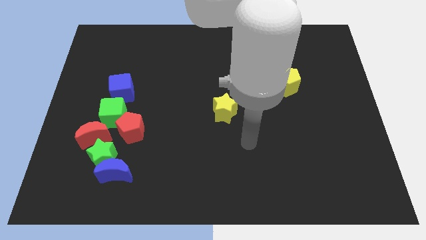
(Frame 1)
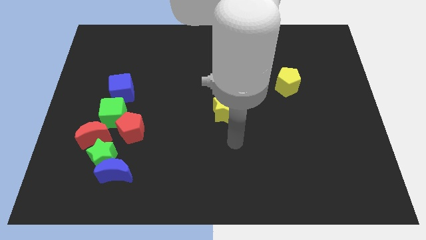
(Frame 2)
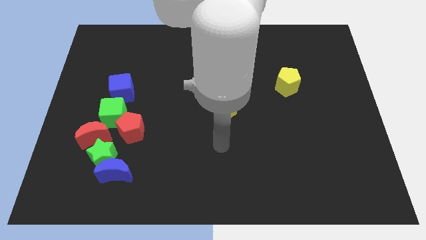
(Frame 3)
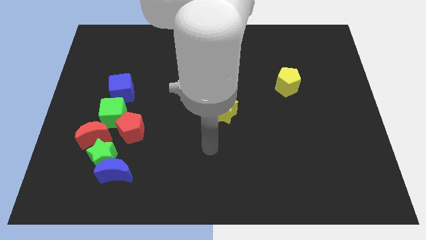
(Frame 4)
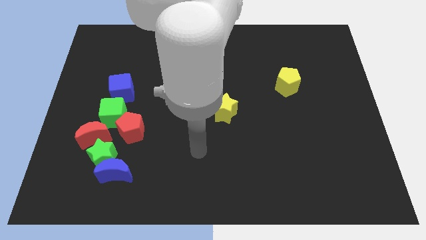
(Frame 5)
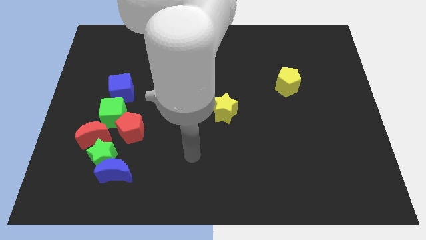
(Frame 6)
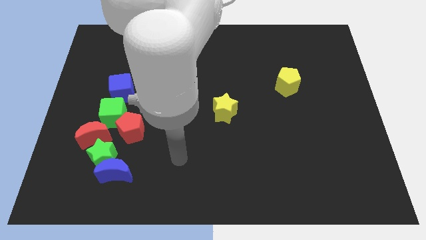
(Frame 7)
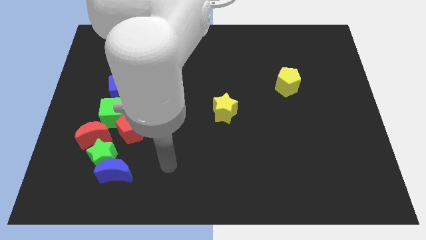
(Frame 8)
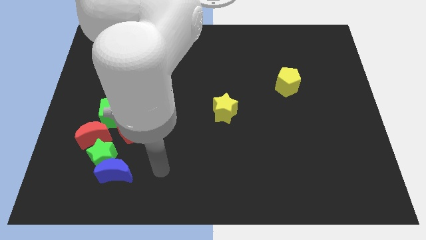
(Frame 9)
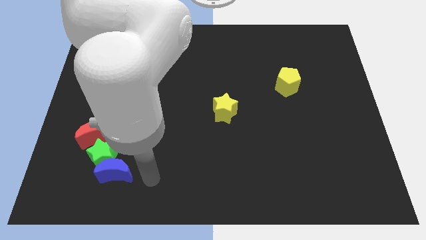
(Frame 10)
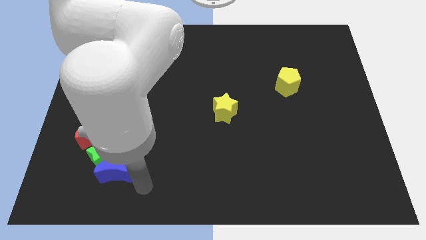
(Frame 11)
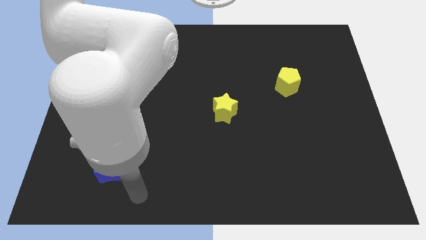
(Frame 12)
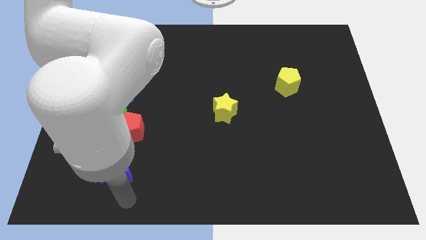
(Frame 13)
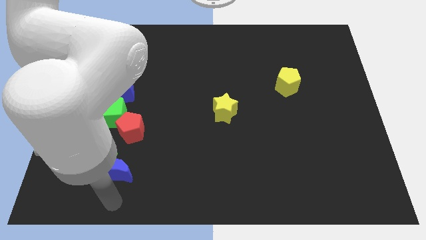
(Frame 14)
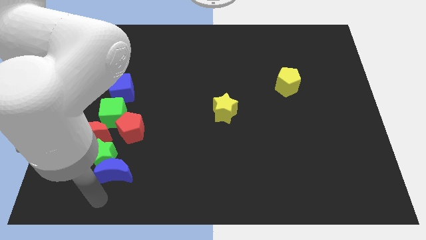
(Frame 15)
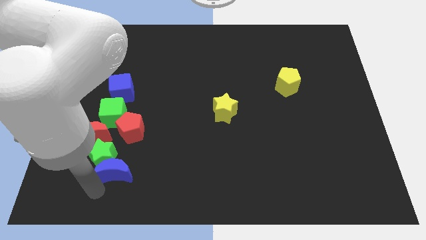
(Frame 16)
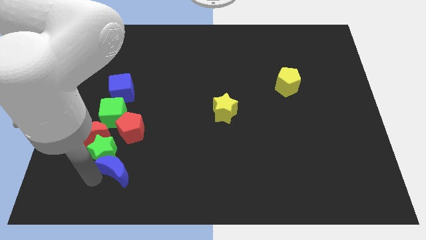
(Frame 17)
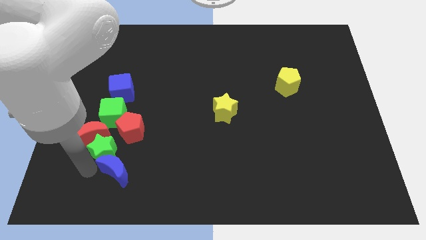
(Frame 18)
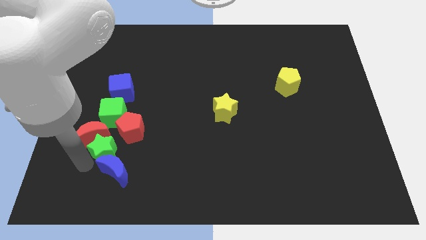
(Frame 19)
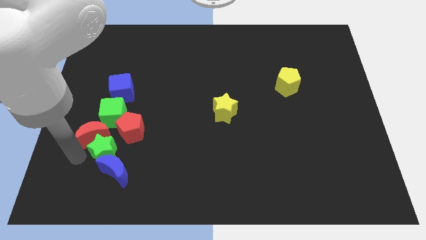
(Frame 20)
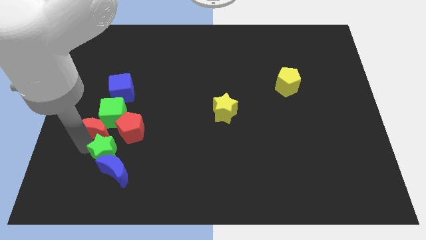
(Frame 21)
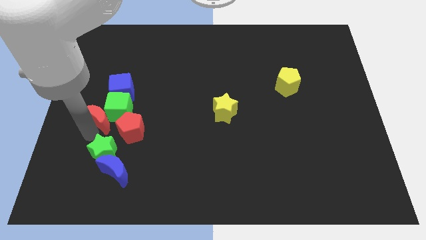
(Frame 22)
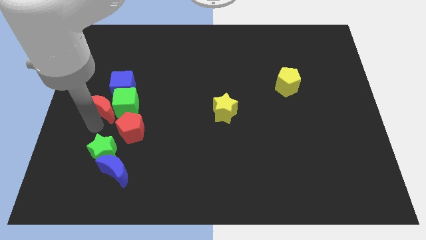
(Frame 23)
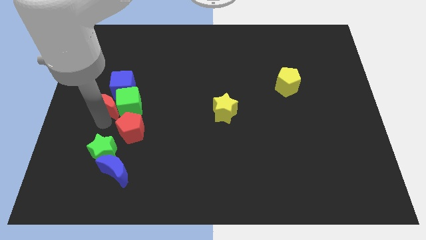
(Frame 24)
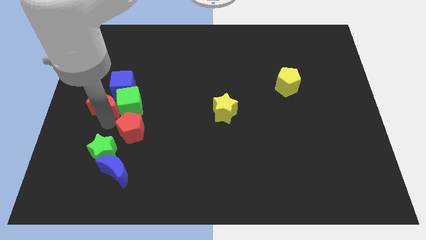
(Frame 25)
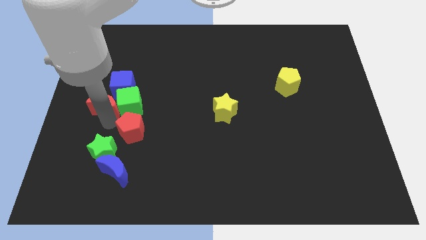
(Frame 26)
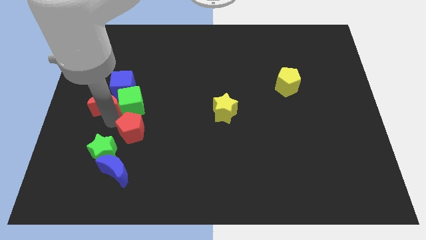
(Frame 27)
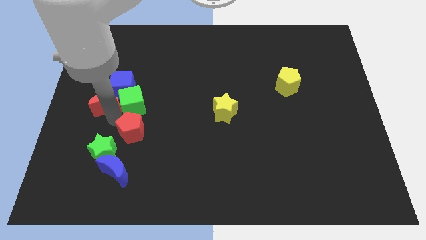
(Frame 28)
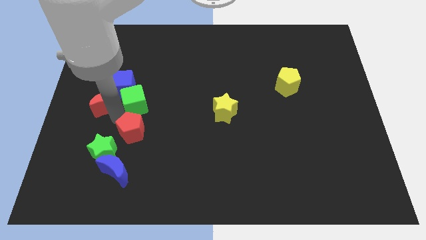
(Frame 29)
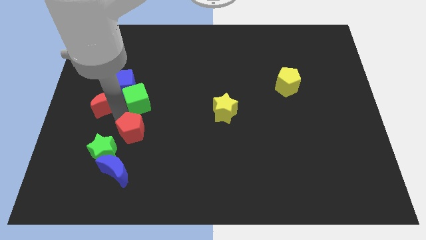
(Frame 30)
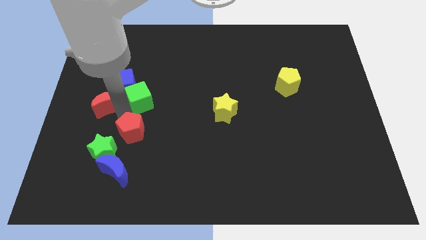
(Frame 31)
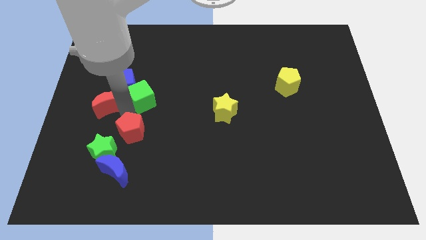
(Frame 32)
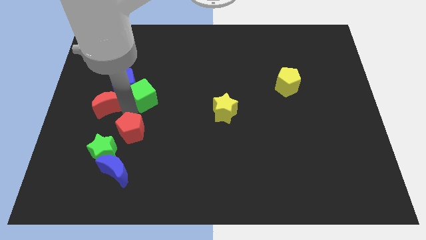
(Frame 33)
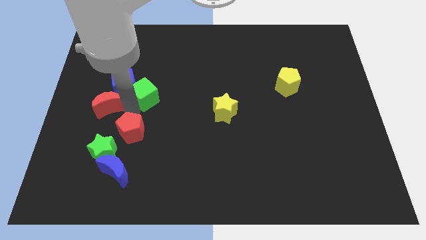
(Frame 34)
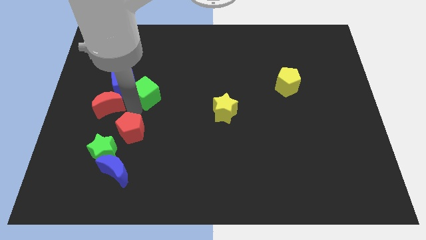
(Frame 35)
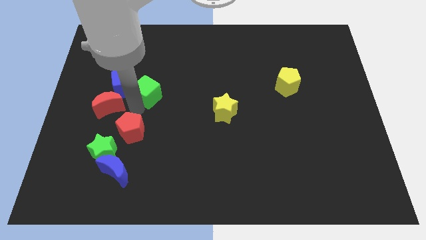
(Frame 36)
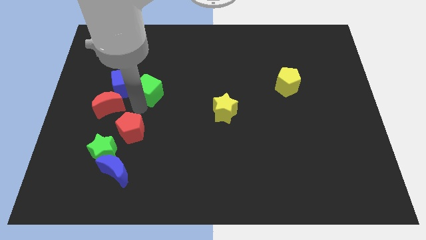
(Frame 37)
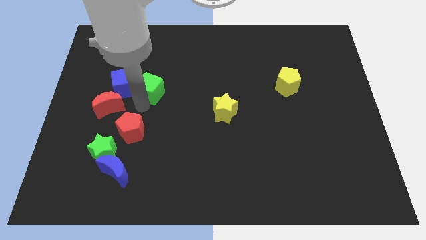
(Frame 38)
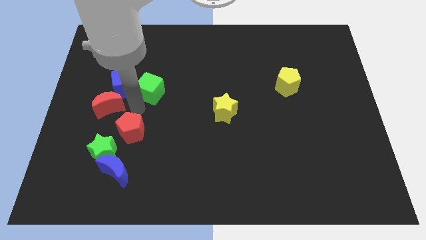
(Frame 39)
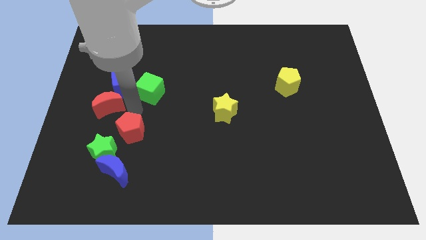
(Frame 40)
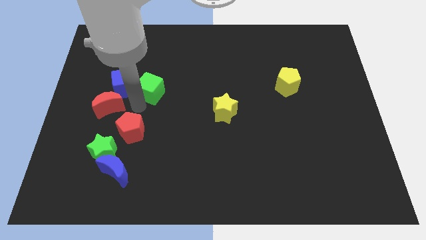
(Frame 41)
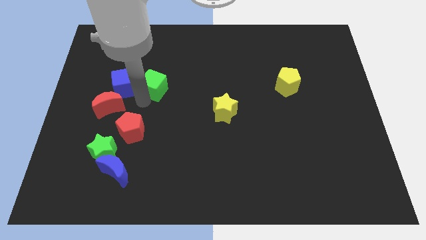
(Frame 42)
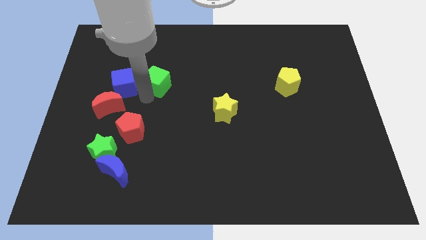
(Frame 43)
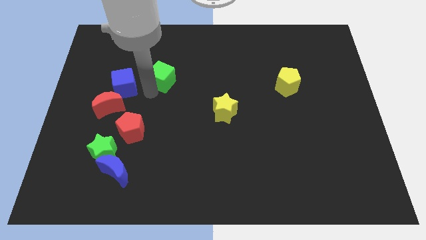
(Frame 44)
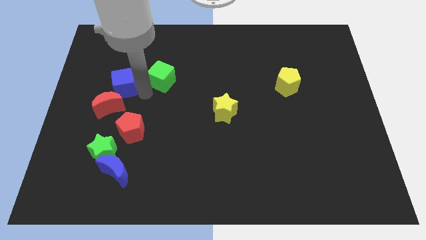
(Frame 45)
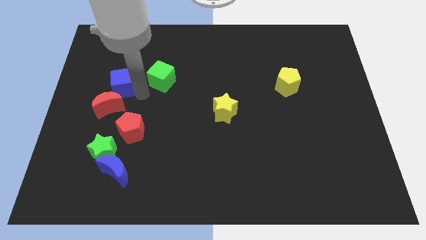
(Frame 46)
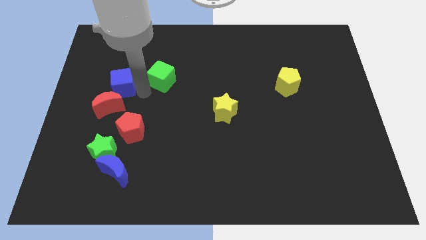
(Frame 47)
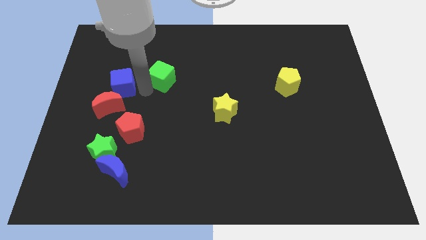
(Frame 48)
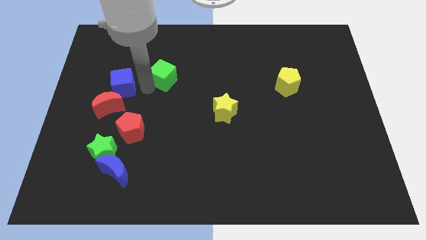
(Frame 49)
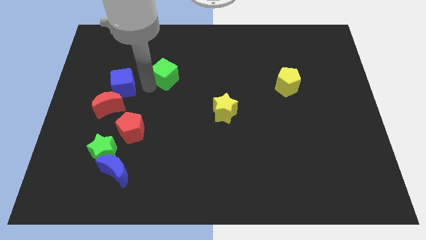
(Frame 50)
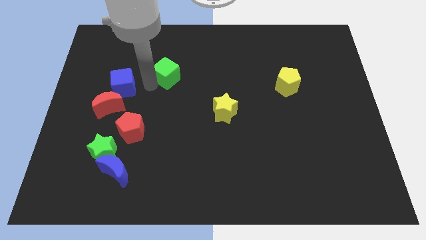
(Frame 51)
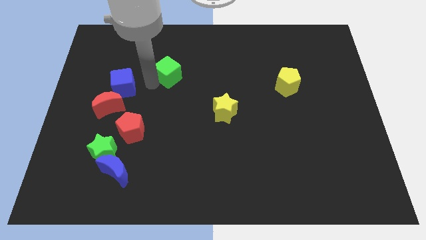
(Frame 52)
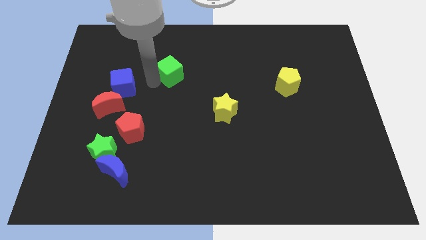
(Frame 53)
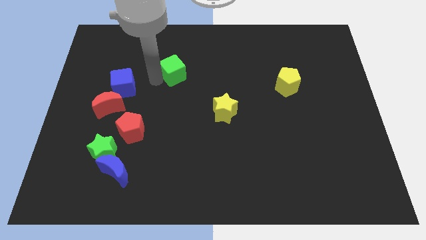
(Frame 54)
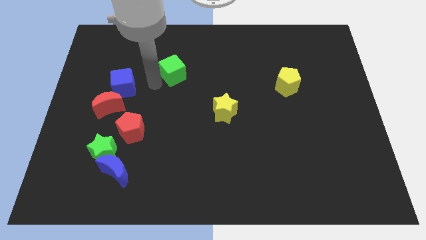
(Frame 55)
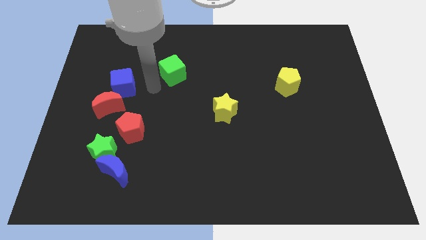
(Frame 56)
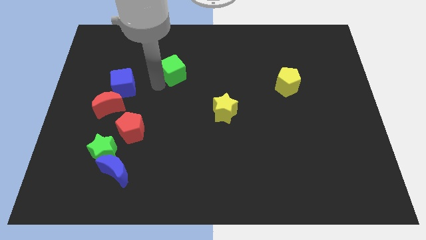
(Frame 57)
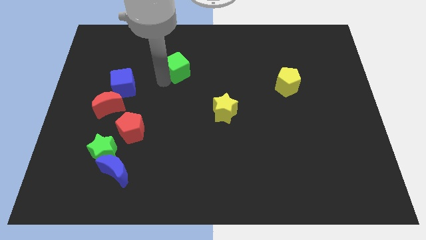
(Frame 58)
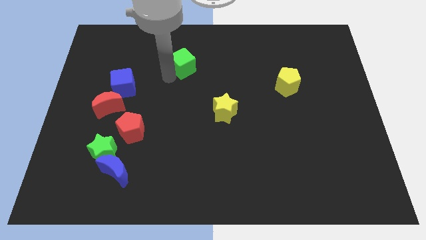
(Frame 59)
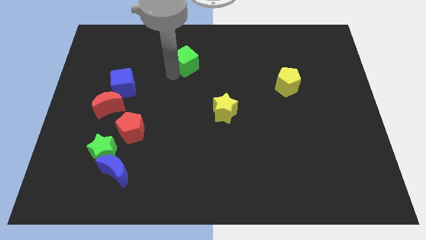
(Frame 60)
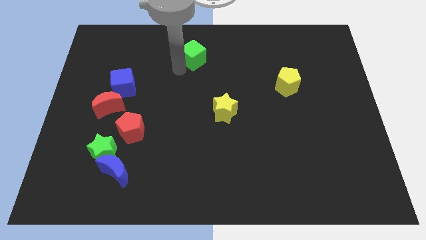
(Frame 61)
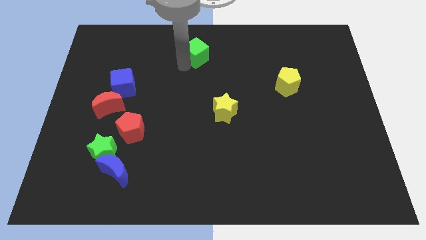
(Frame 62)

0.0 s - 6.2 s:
put the green cube to the top
